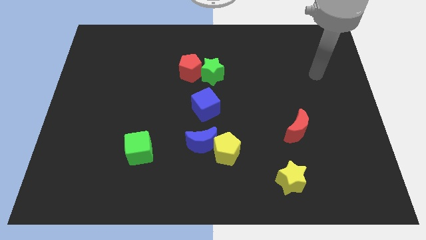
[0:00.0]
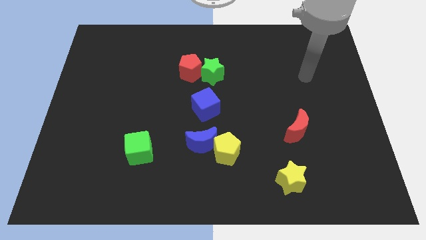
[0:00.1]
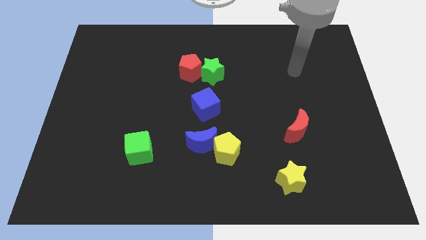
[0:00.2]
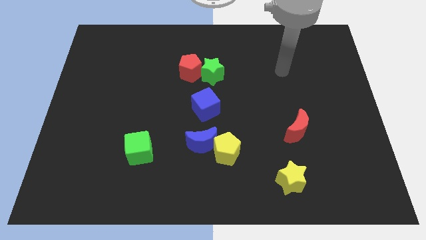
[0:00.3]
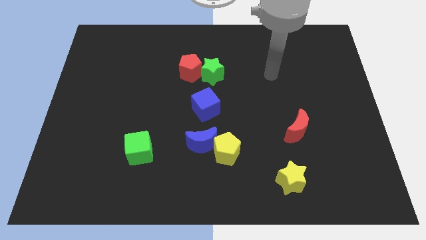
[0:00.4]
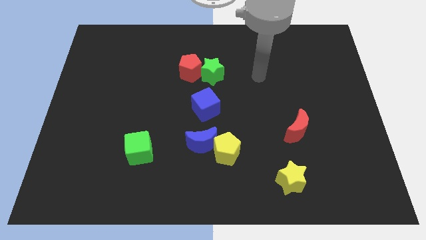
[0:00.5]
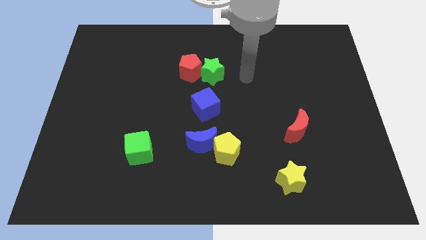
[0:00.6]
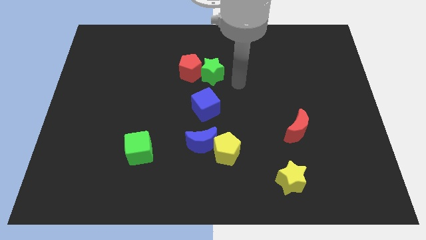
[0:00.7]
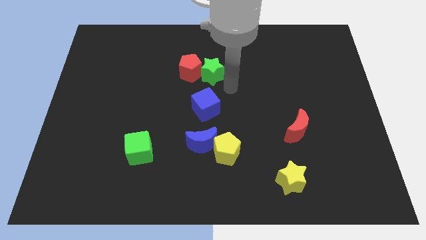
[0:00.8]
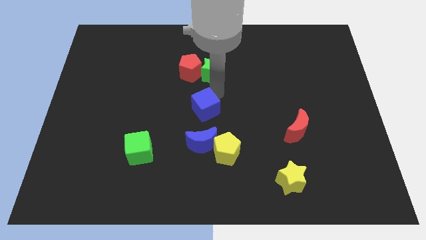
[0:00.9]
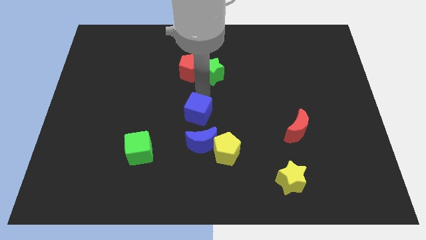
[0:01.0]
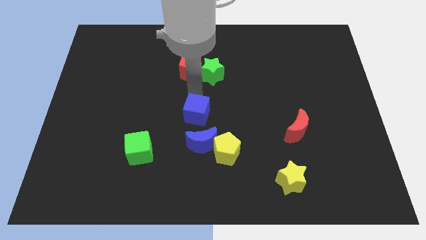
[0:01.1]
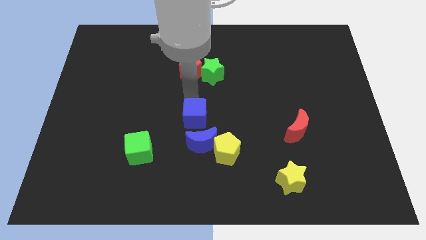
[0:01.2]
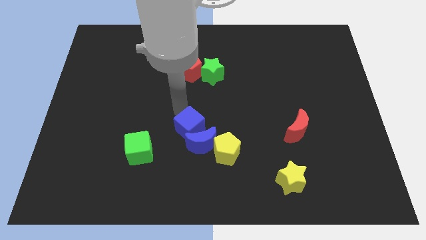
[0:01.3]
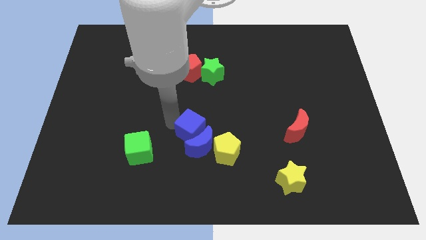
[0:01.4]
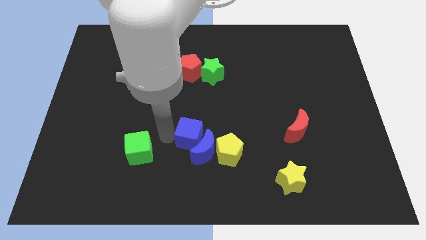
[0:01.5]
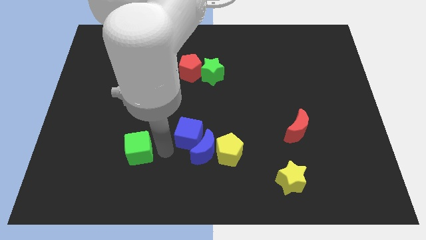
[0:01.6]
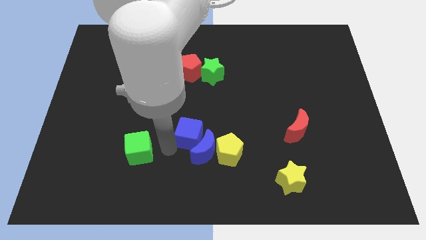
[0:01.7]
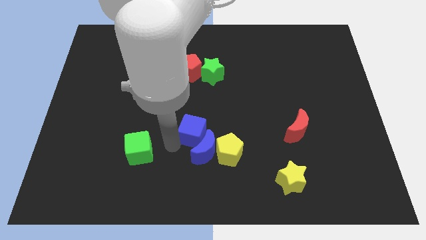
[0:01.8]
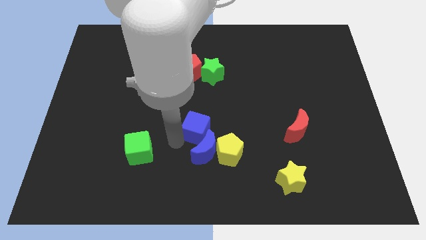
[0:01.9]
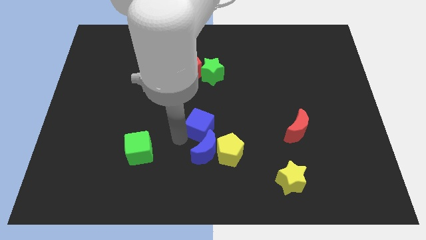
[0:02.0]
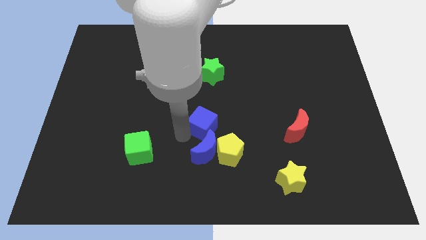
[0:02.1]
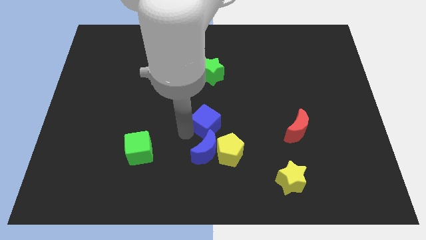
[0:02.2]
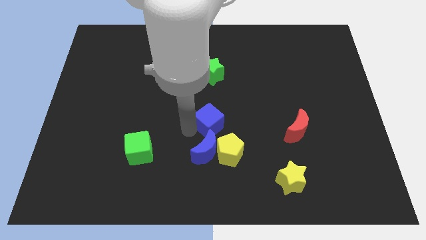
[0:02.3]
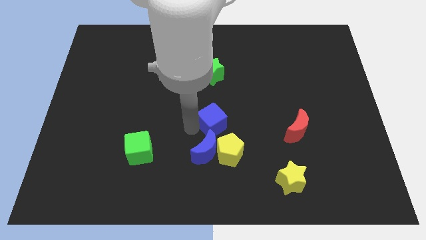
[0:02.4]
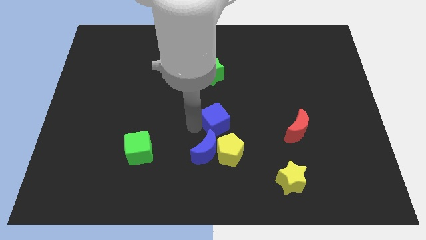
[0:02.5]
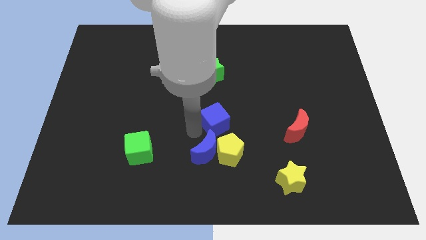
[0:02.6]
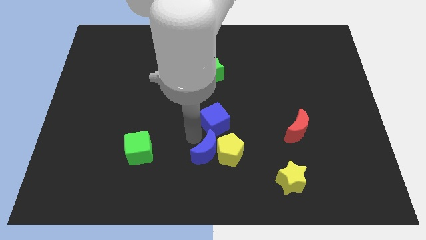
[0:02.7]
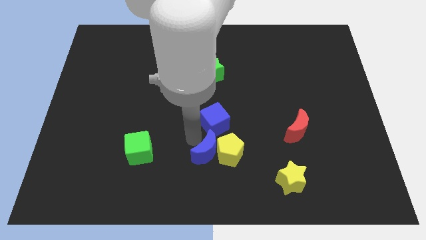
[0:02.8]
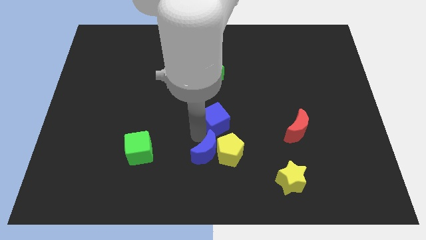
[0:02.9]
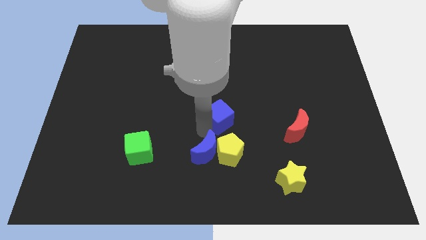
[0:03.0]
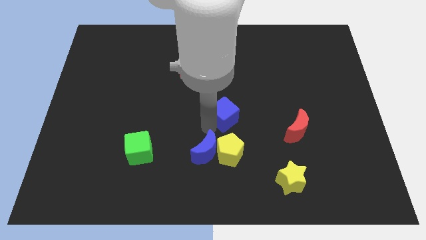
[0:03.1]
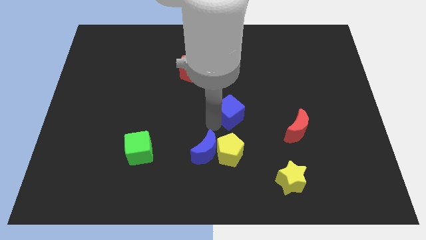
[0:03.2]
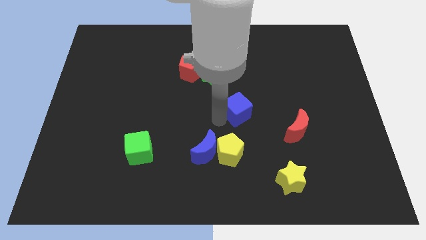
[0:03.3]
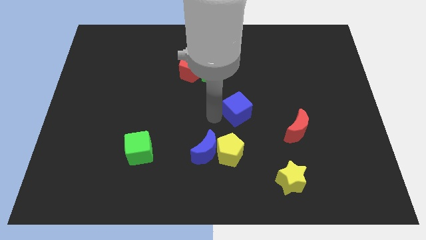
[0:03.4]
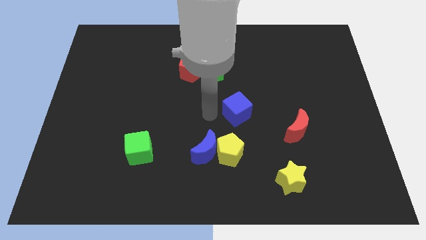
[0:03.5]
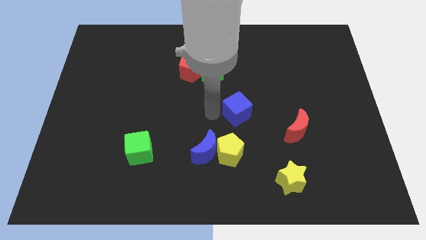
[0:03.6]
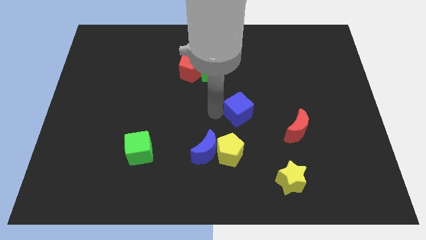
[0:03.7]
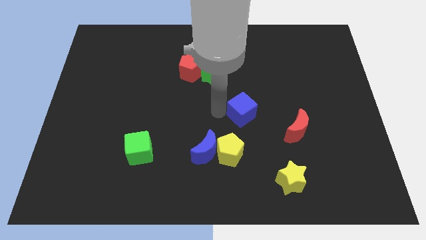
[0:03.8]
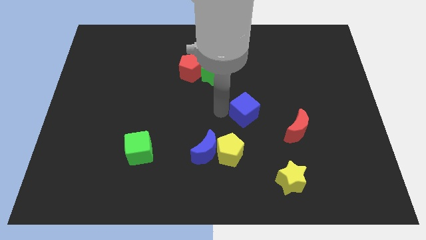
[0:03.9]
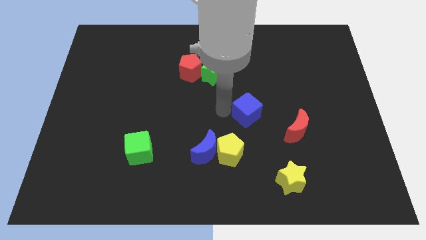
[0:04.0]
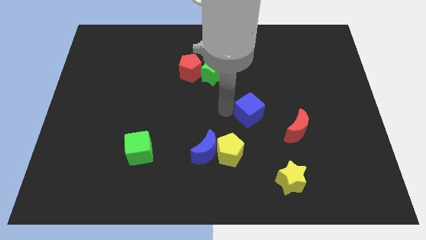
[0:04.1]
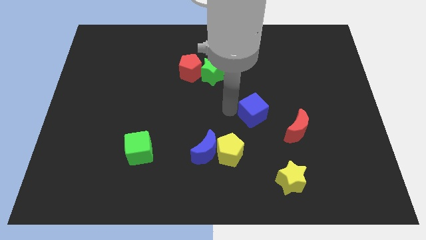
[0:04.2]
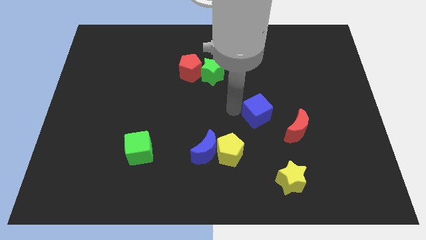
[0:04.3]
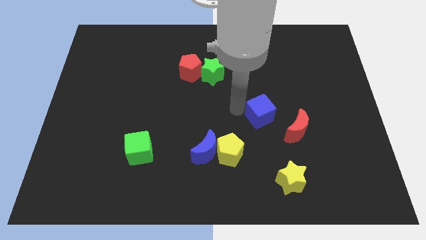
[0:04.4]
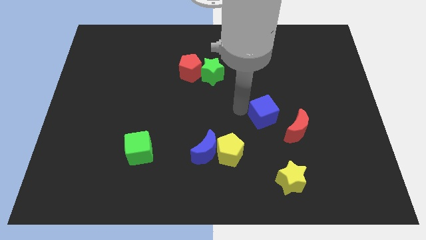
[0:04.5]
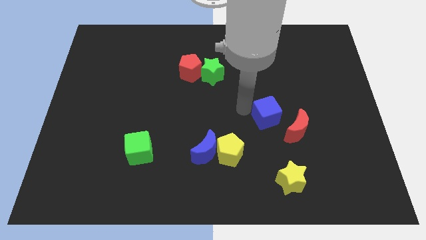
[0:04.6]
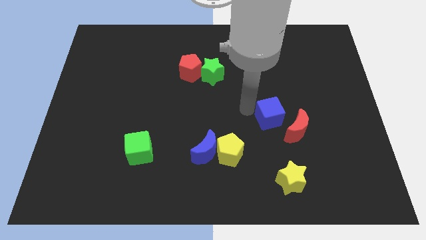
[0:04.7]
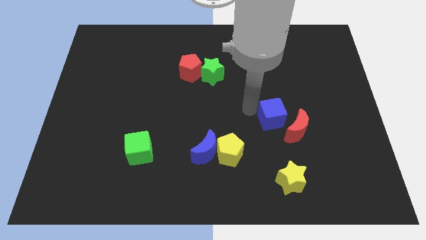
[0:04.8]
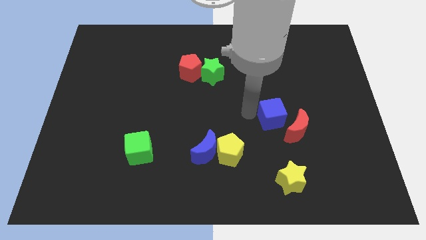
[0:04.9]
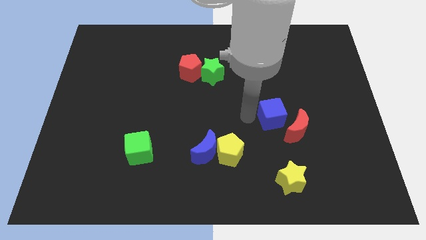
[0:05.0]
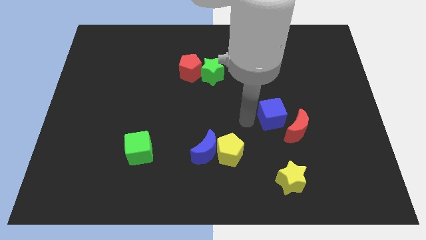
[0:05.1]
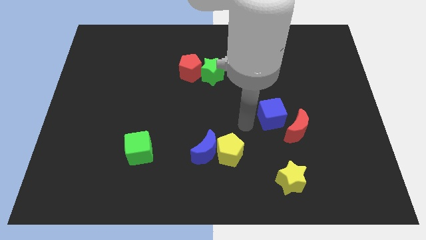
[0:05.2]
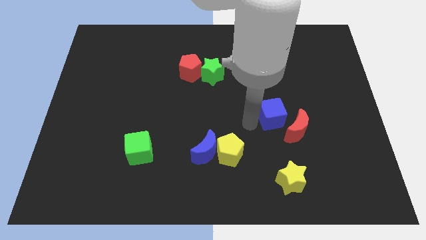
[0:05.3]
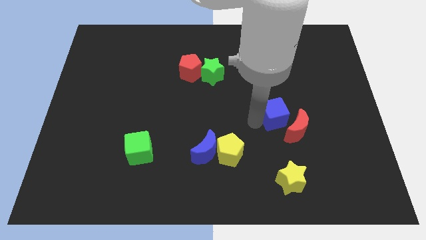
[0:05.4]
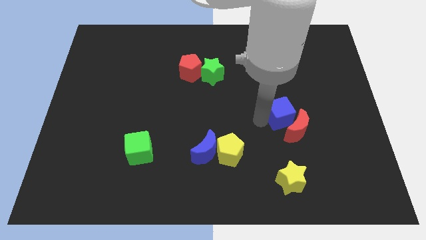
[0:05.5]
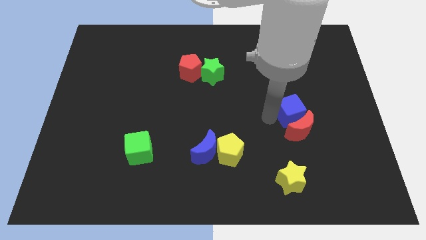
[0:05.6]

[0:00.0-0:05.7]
move the blue cube to the top right of the red moon

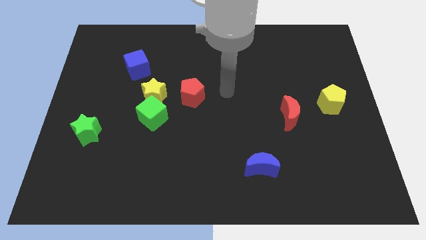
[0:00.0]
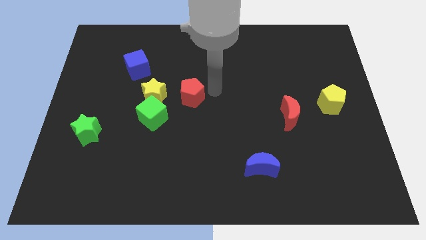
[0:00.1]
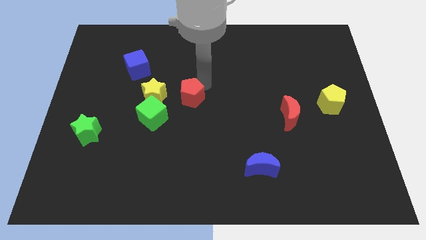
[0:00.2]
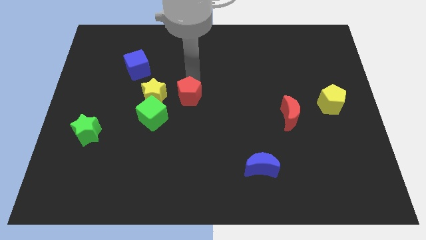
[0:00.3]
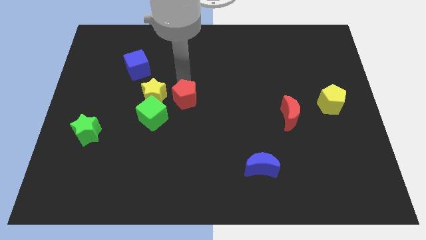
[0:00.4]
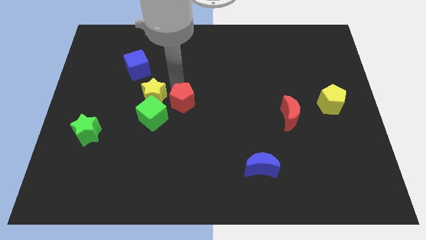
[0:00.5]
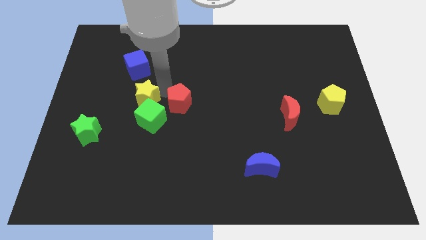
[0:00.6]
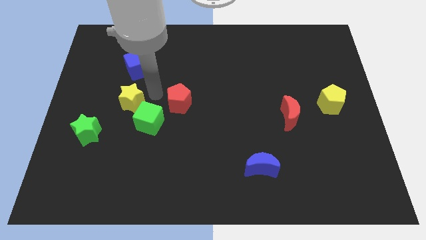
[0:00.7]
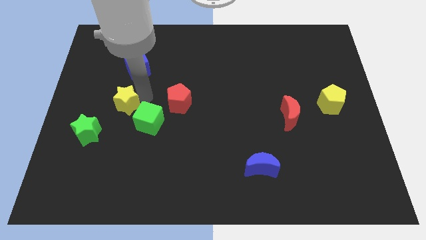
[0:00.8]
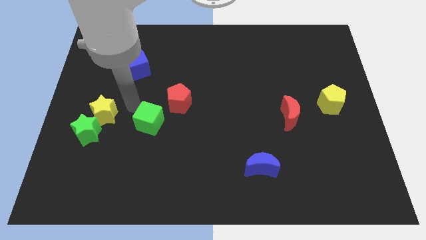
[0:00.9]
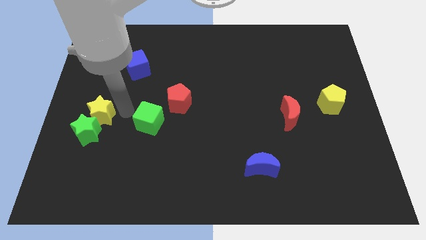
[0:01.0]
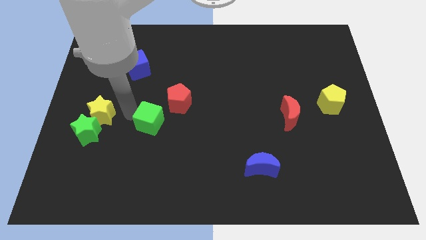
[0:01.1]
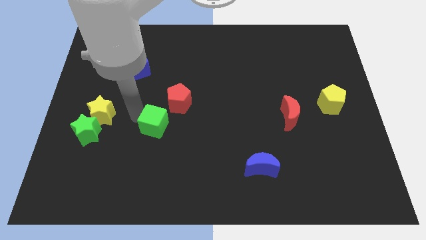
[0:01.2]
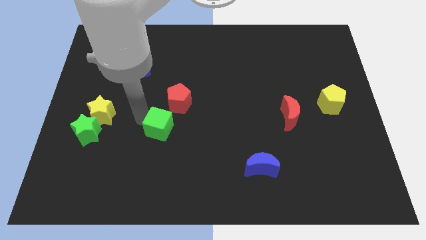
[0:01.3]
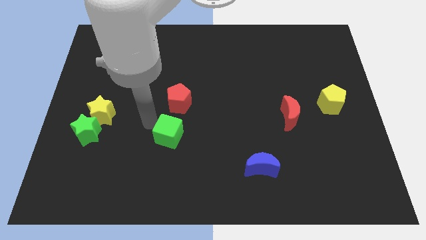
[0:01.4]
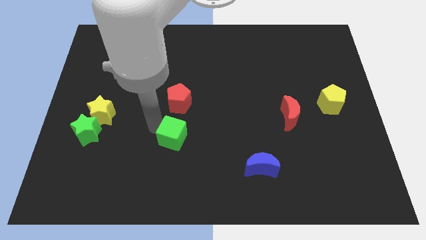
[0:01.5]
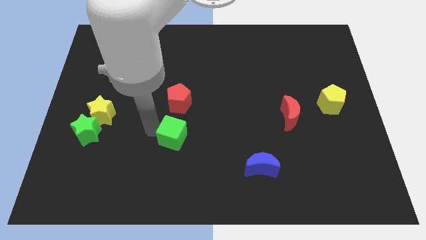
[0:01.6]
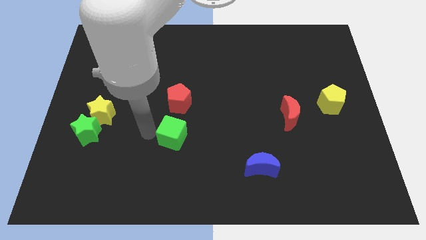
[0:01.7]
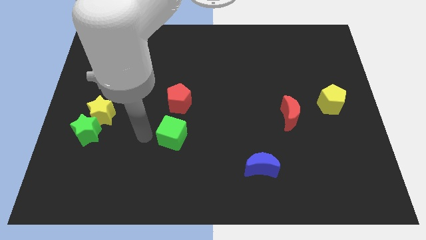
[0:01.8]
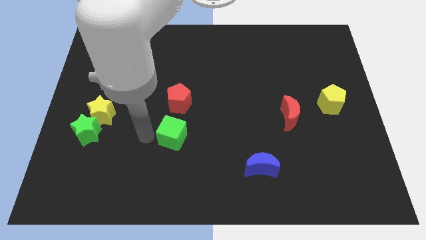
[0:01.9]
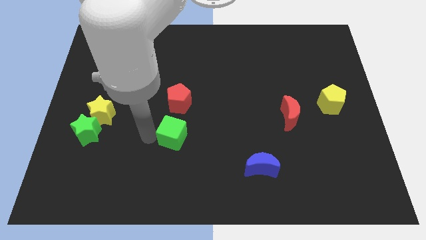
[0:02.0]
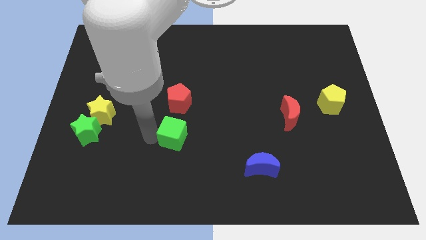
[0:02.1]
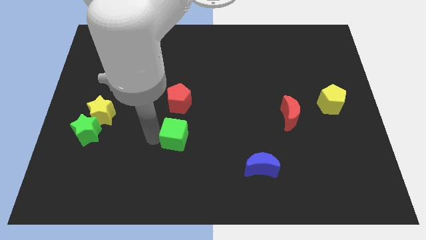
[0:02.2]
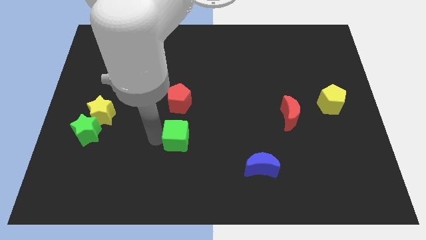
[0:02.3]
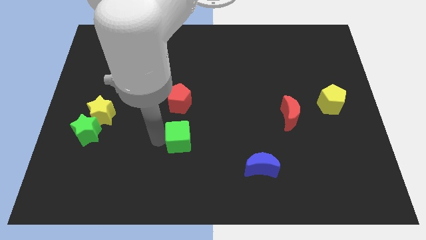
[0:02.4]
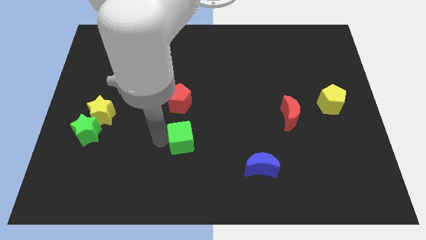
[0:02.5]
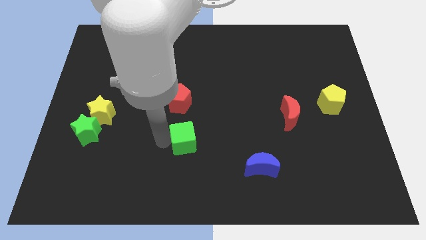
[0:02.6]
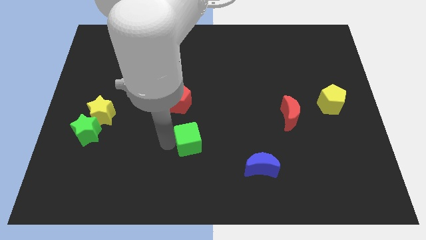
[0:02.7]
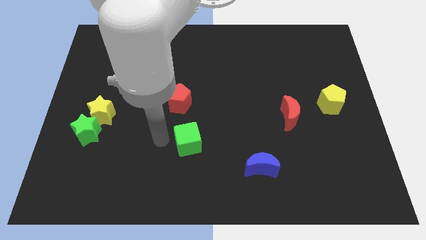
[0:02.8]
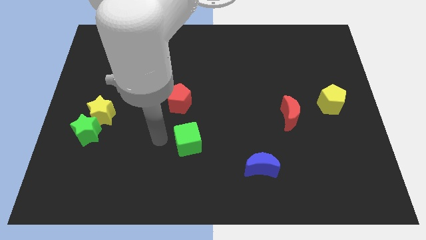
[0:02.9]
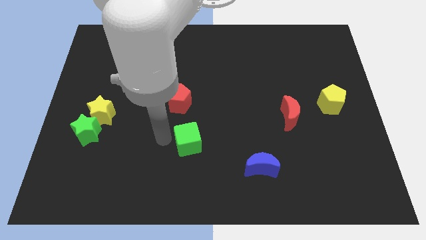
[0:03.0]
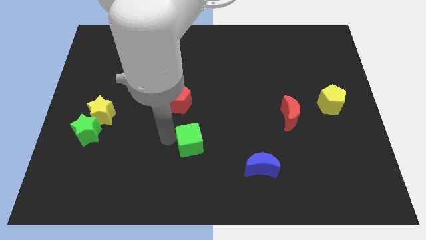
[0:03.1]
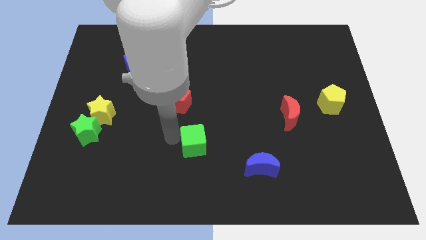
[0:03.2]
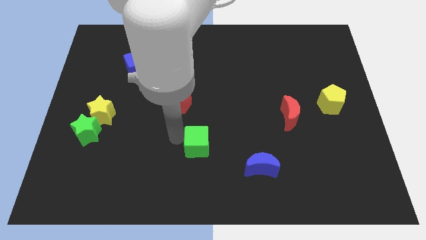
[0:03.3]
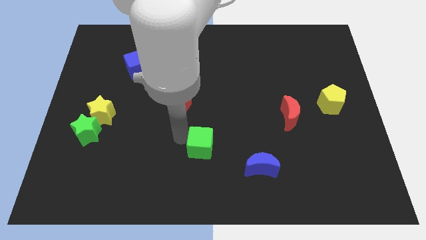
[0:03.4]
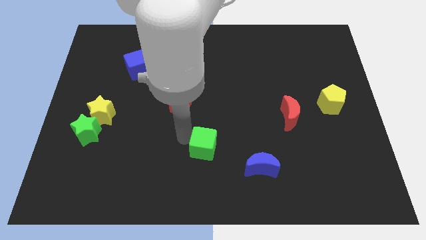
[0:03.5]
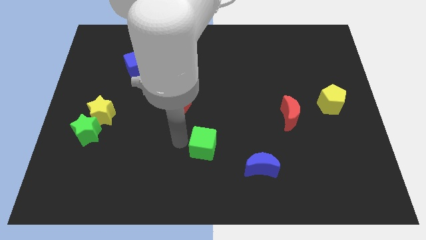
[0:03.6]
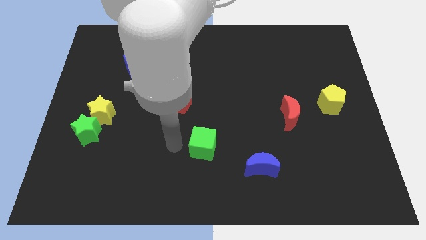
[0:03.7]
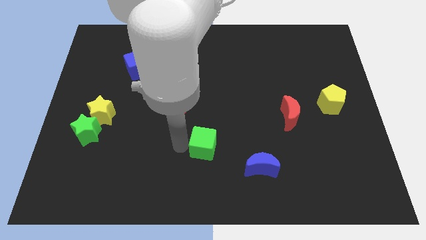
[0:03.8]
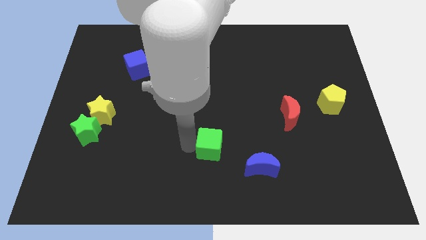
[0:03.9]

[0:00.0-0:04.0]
move the green cube to the top left of the blue moon
